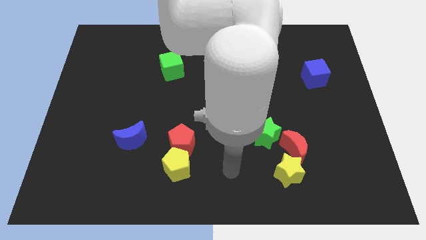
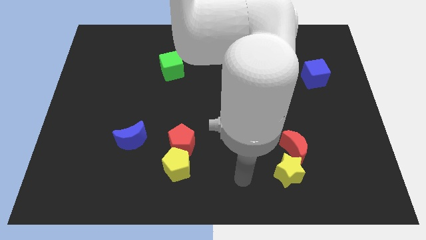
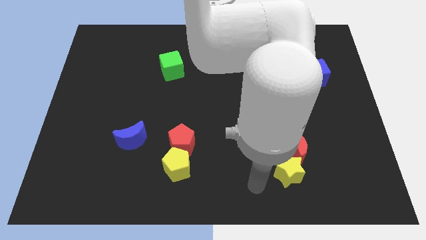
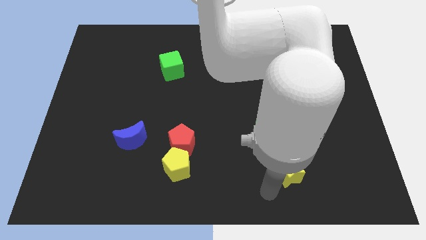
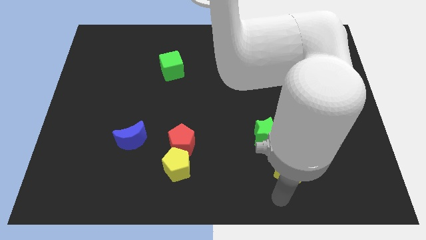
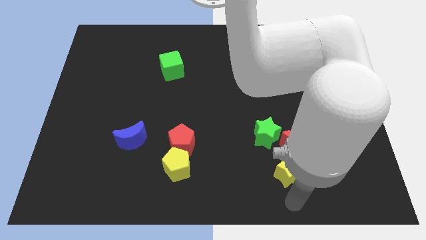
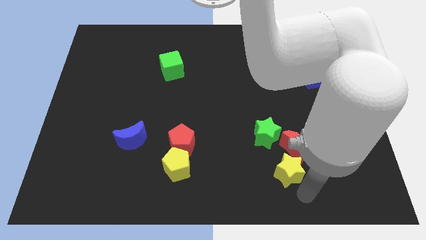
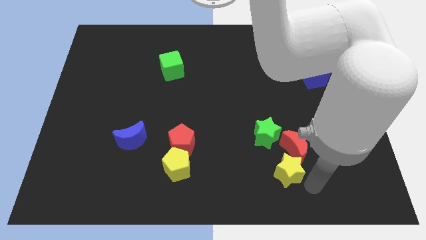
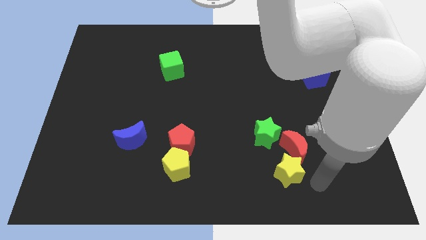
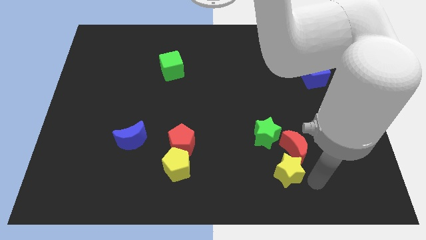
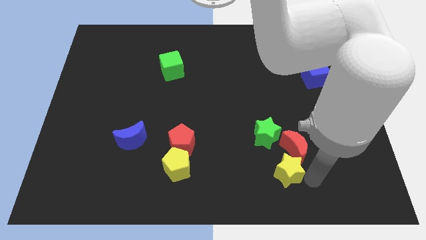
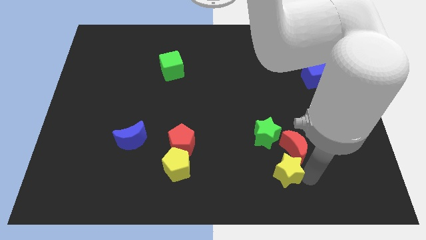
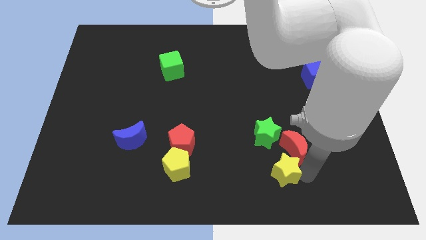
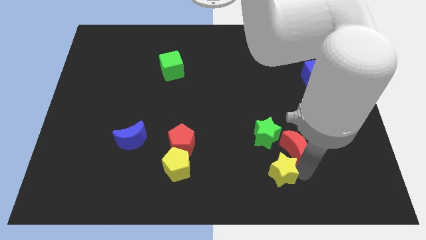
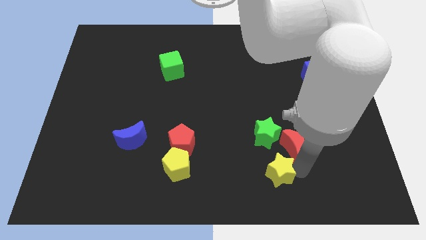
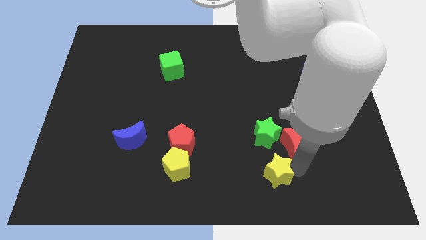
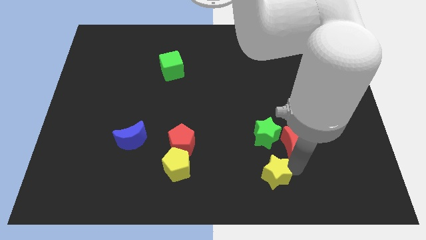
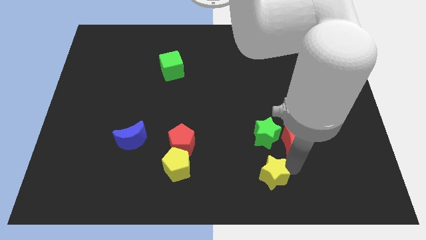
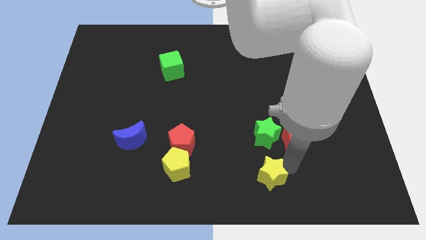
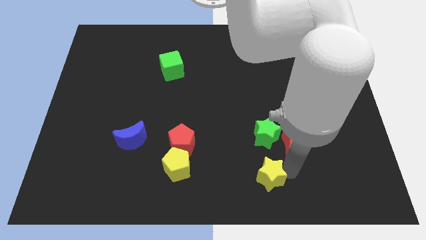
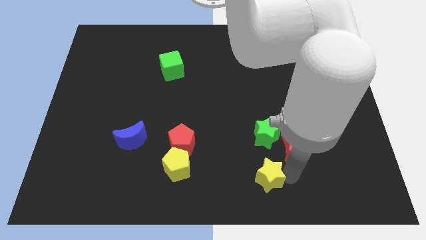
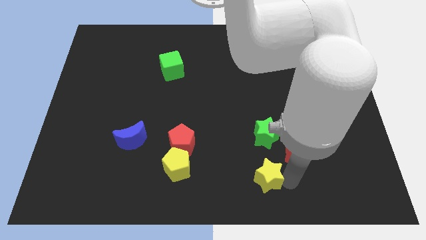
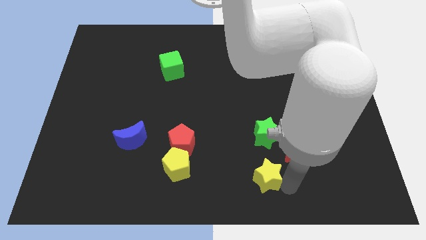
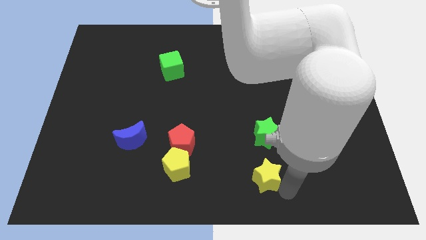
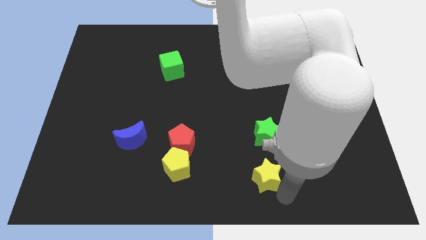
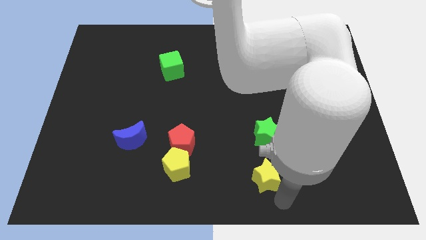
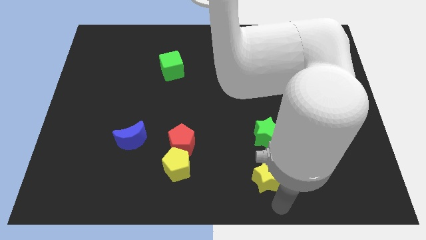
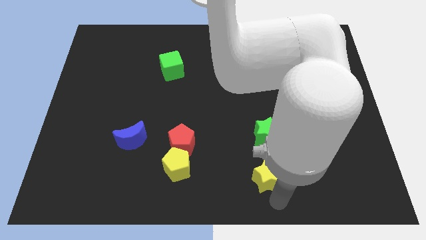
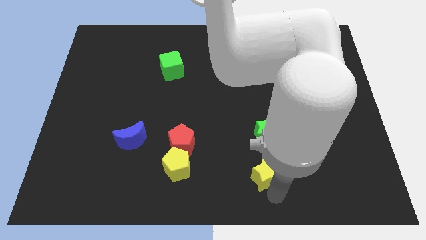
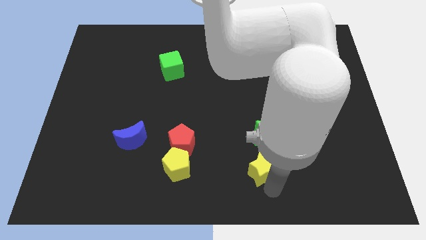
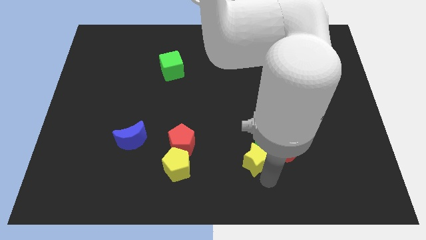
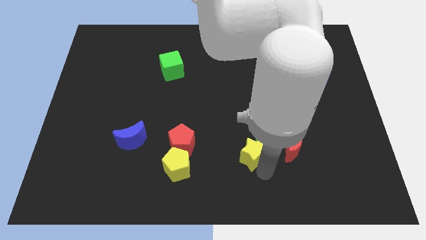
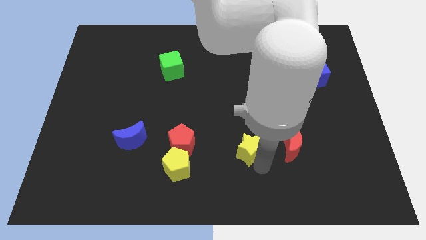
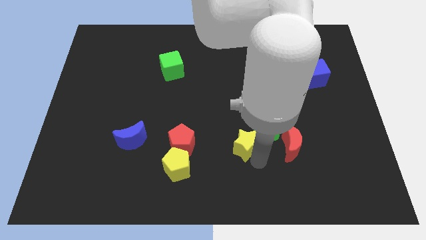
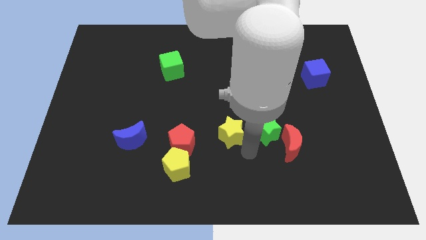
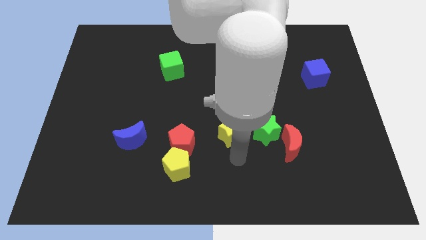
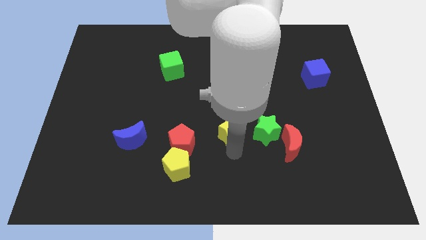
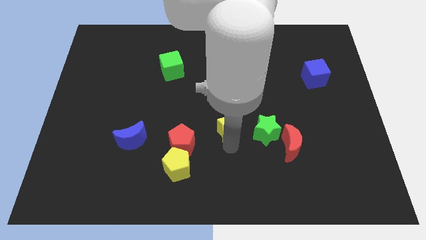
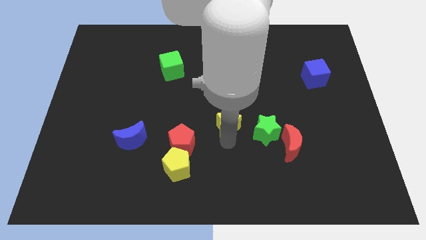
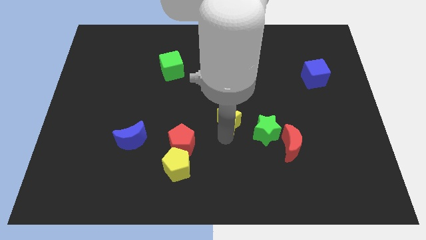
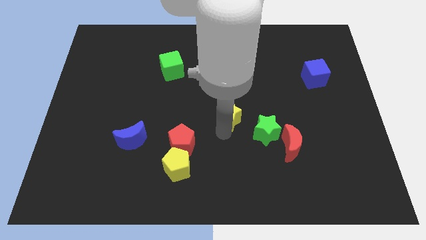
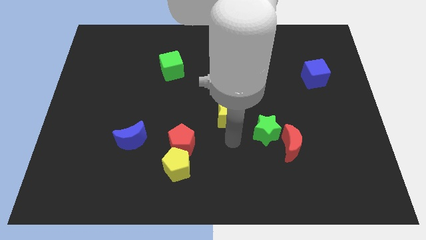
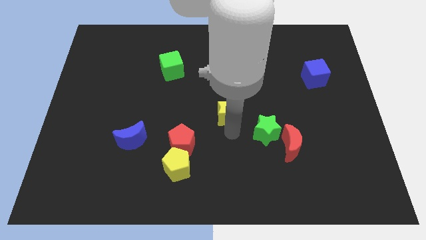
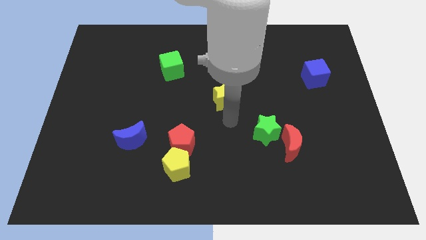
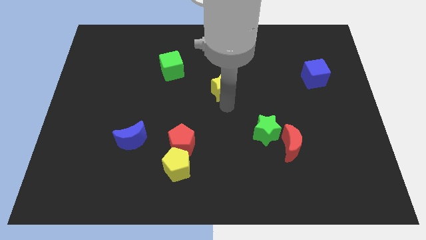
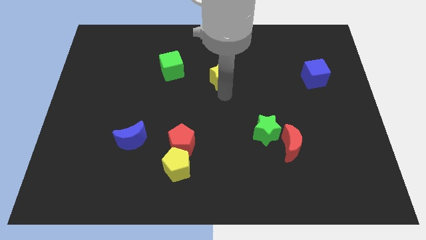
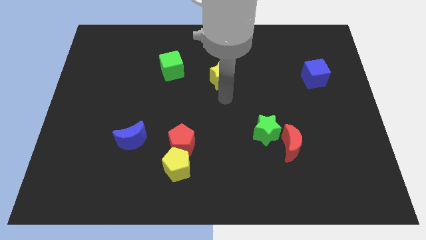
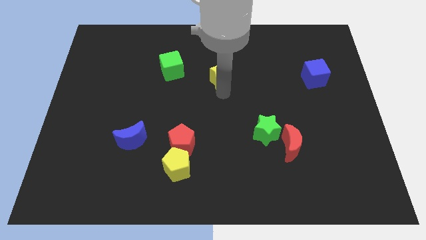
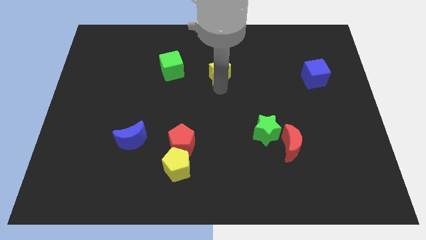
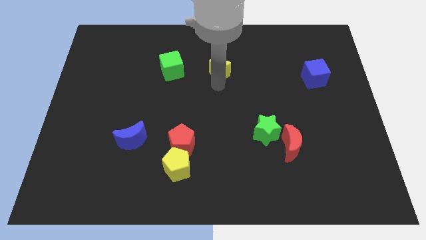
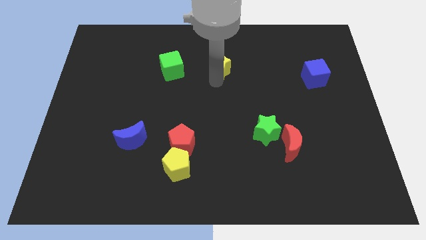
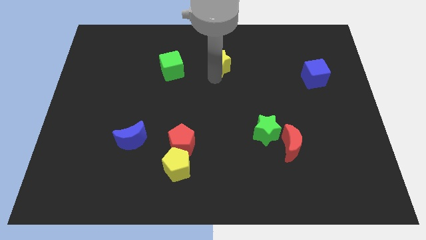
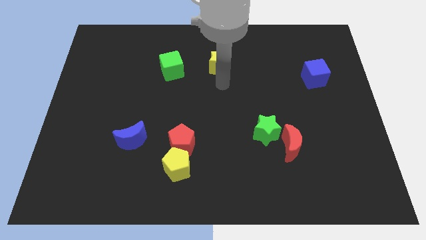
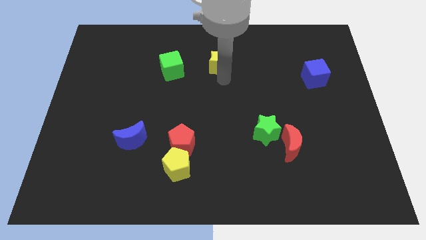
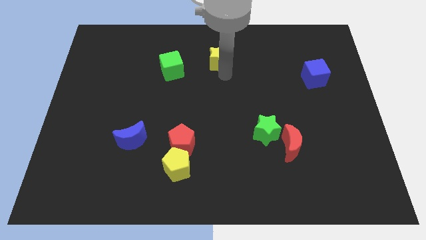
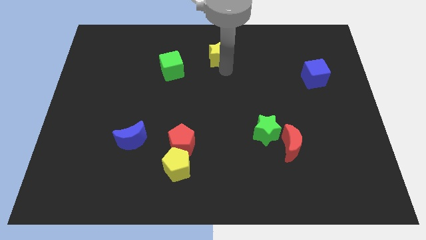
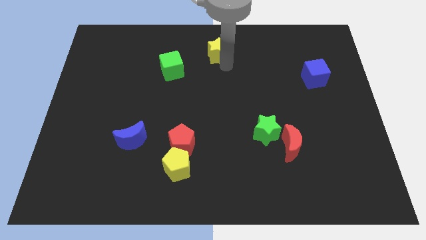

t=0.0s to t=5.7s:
push the yellow star to the top
